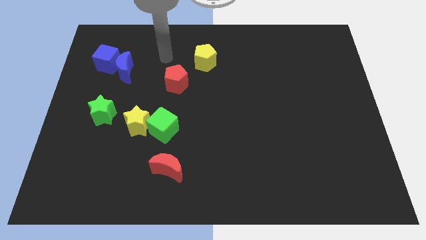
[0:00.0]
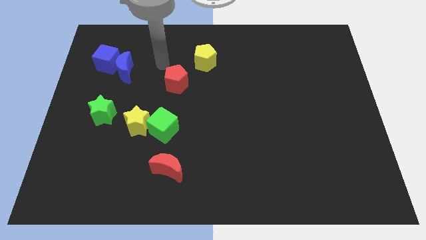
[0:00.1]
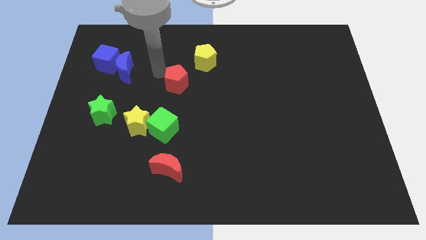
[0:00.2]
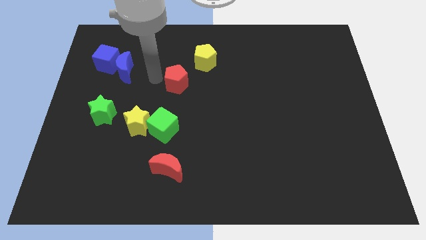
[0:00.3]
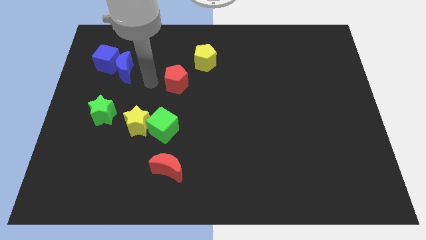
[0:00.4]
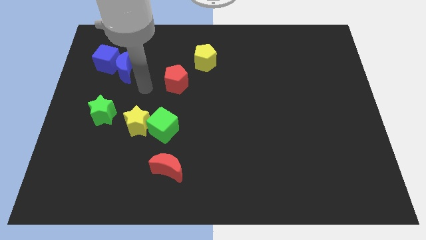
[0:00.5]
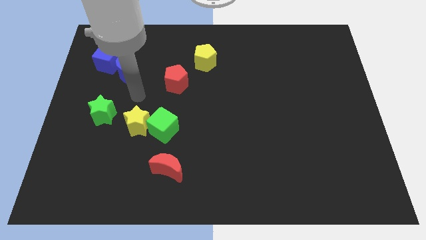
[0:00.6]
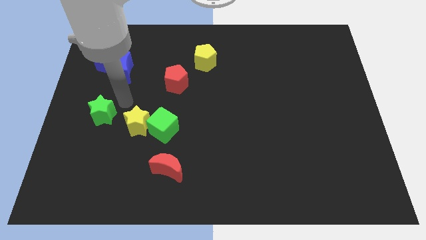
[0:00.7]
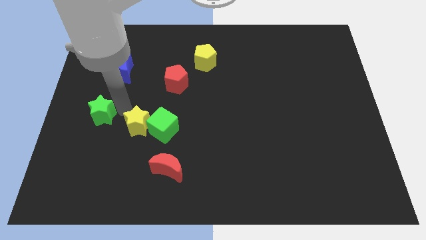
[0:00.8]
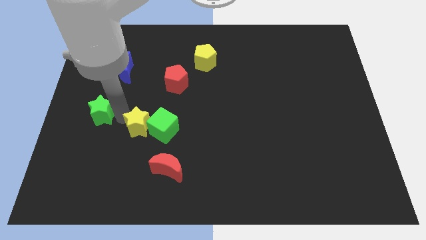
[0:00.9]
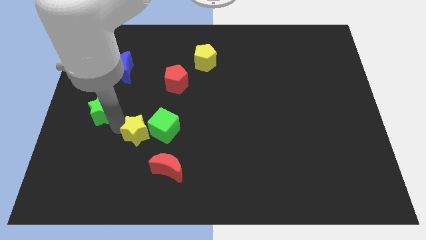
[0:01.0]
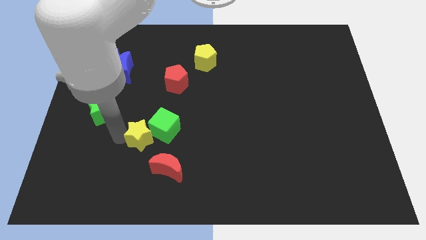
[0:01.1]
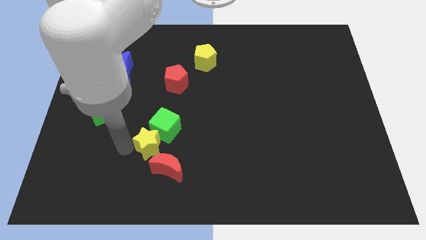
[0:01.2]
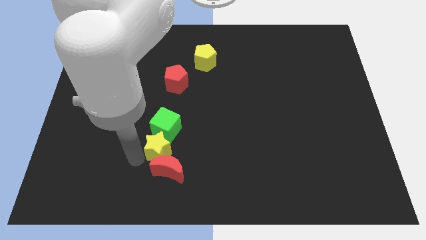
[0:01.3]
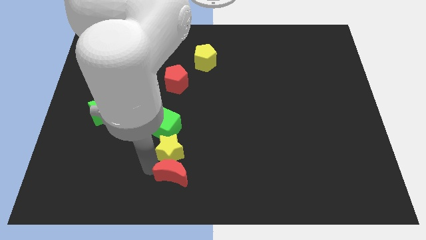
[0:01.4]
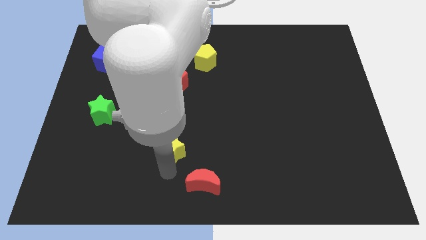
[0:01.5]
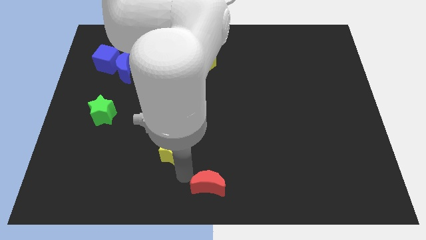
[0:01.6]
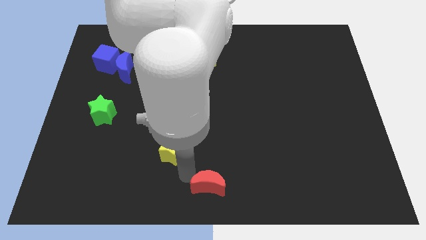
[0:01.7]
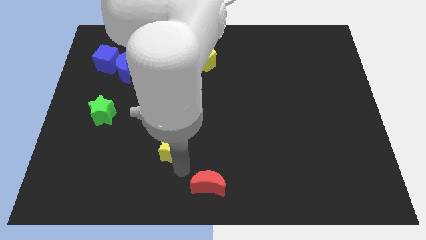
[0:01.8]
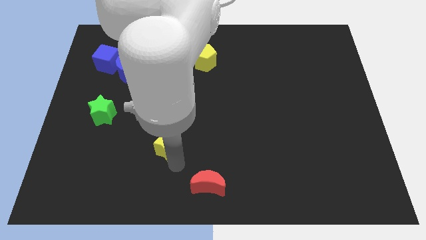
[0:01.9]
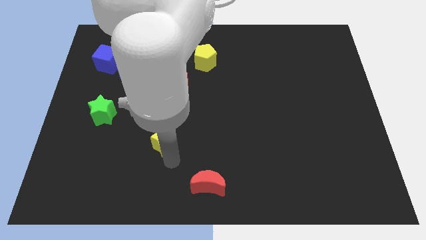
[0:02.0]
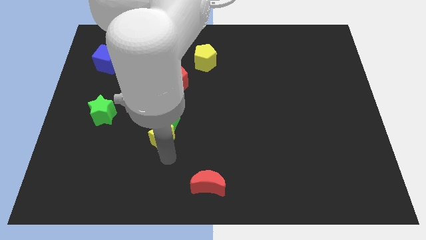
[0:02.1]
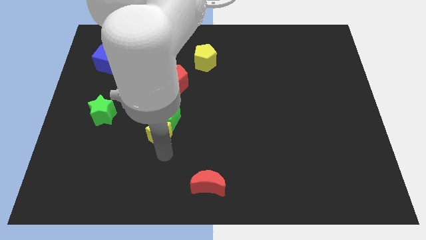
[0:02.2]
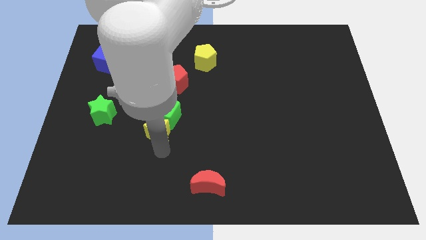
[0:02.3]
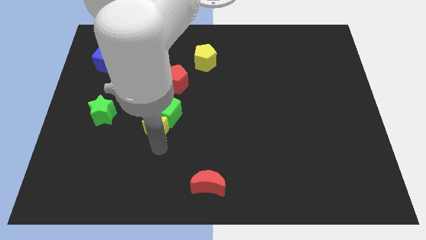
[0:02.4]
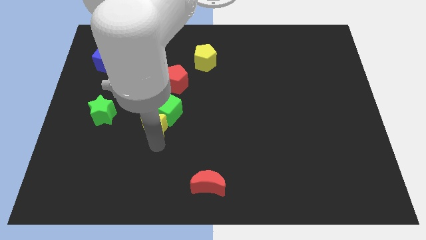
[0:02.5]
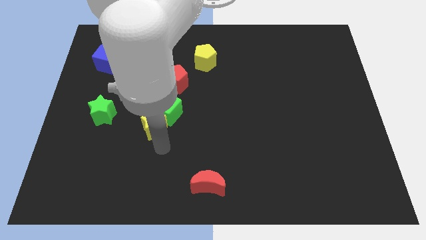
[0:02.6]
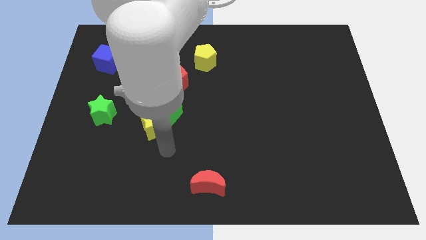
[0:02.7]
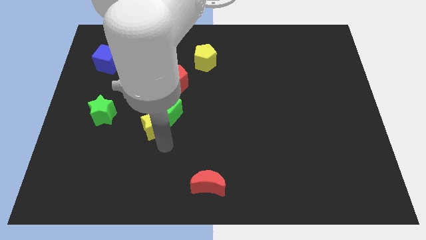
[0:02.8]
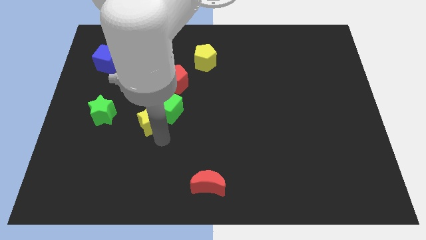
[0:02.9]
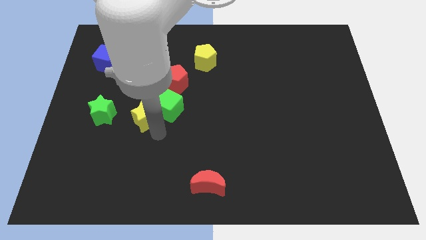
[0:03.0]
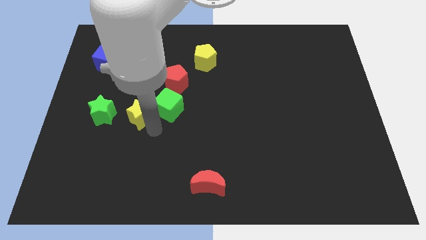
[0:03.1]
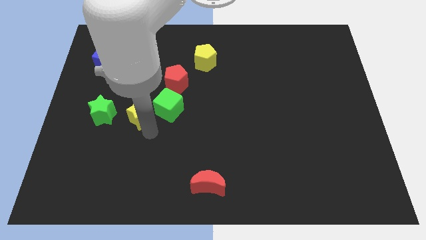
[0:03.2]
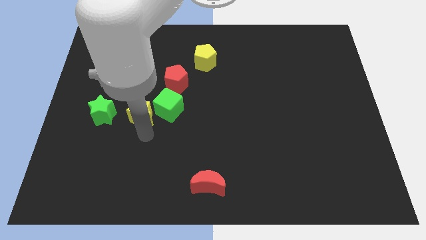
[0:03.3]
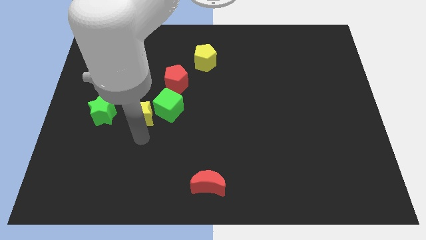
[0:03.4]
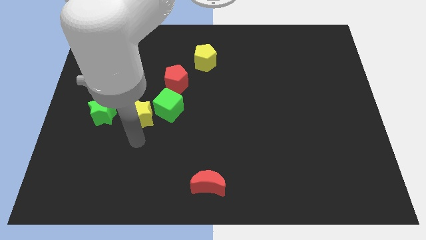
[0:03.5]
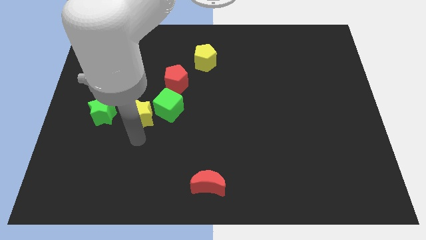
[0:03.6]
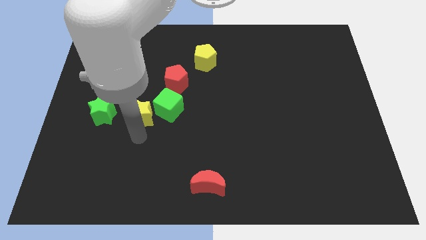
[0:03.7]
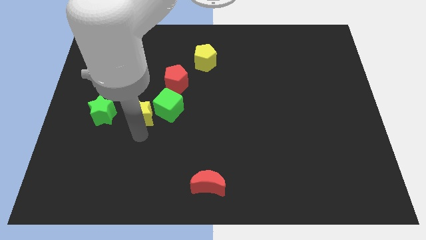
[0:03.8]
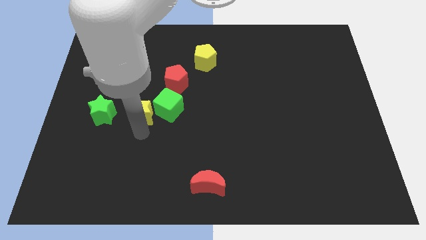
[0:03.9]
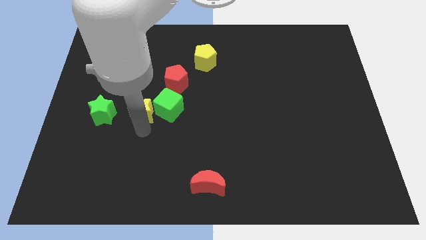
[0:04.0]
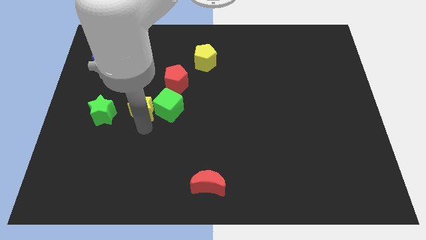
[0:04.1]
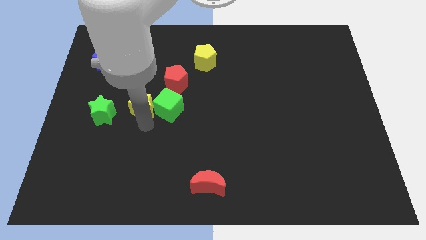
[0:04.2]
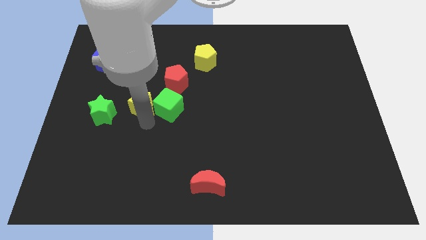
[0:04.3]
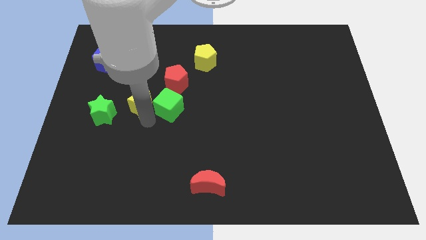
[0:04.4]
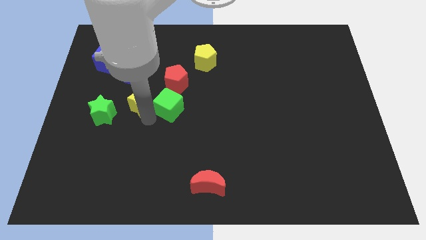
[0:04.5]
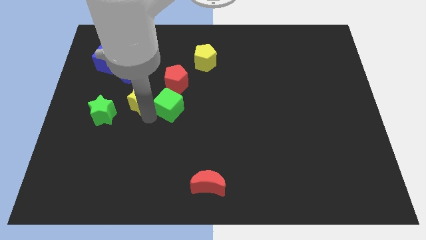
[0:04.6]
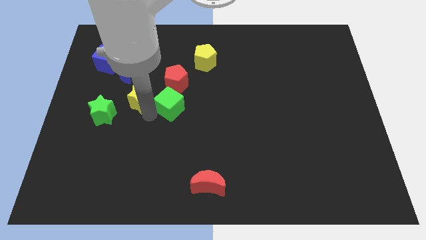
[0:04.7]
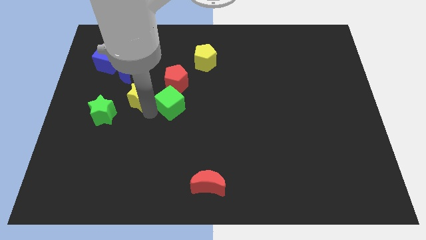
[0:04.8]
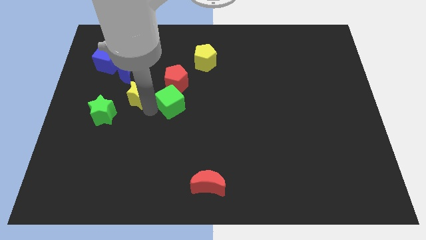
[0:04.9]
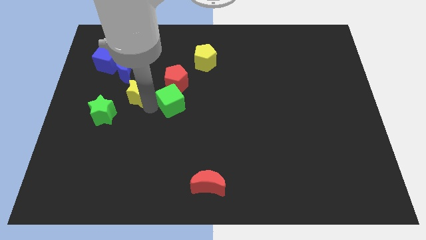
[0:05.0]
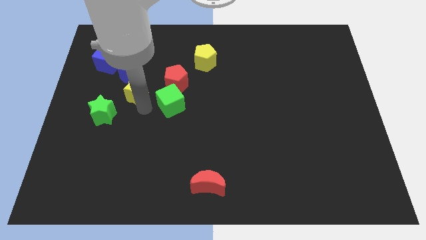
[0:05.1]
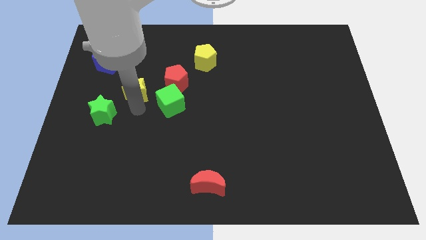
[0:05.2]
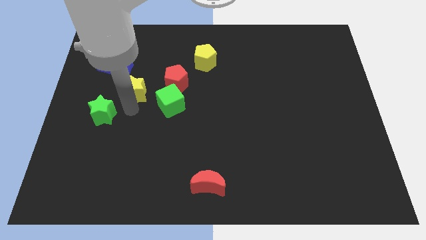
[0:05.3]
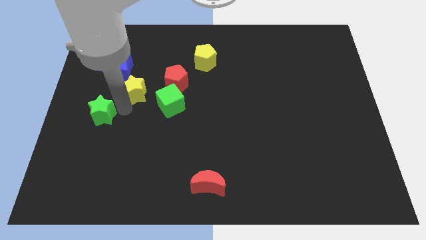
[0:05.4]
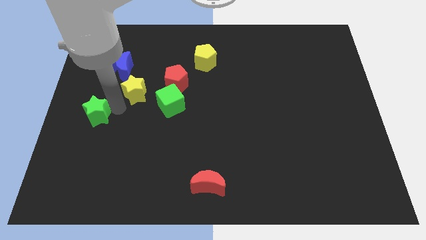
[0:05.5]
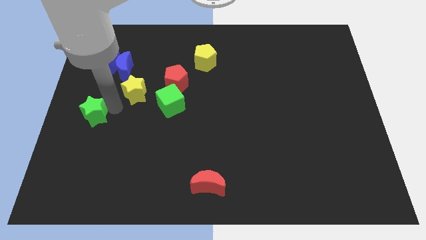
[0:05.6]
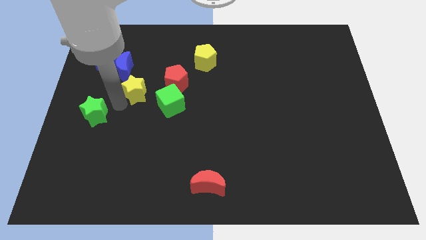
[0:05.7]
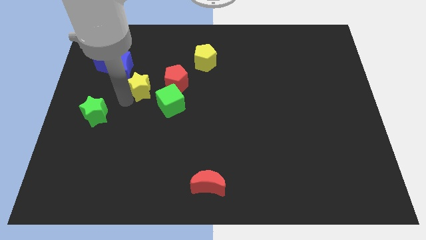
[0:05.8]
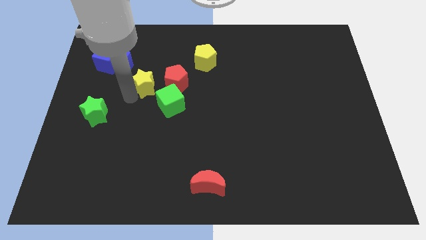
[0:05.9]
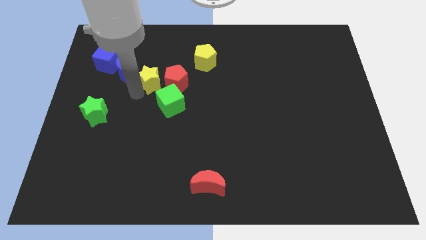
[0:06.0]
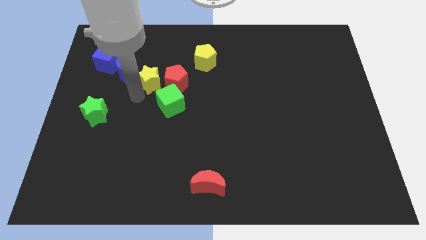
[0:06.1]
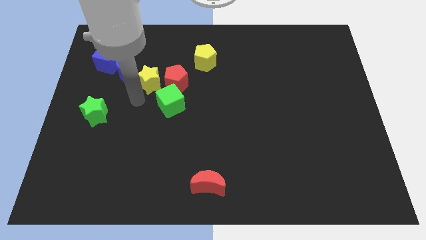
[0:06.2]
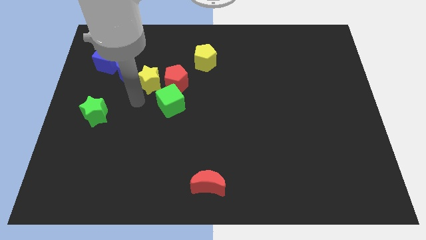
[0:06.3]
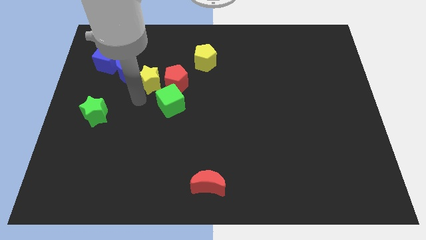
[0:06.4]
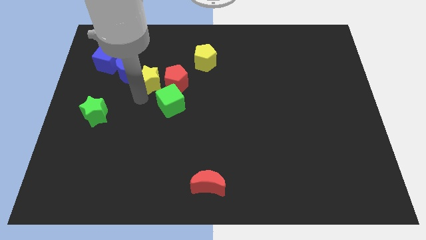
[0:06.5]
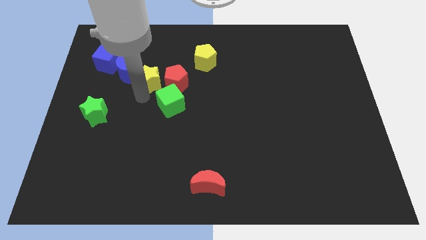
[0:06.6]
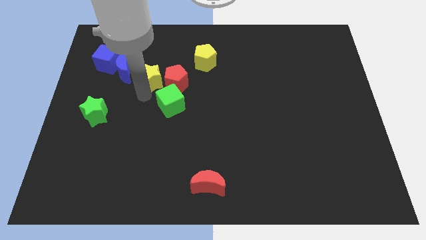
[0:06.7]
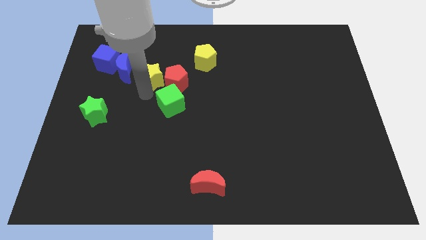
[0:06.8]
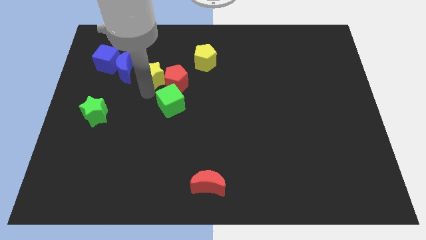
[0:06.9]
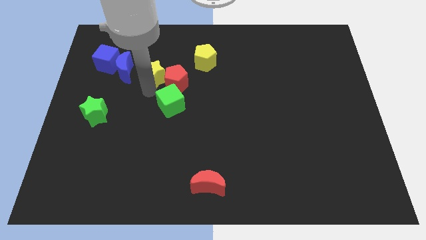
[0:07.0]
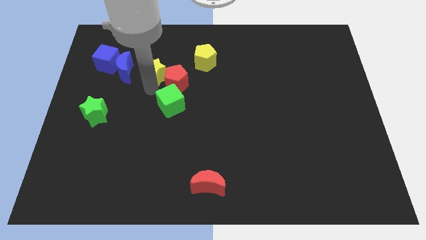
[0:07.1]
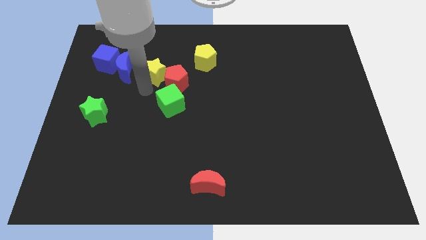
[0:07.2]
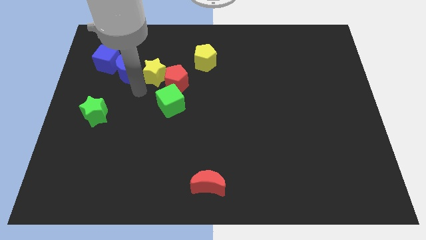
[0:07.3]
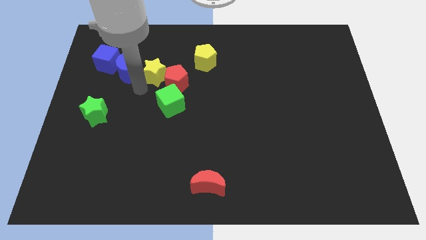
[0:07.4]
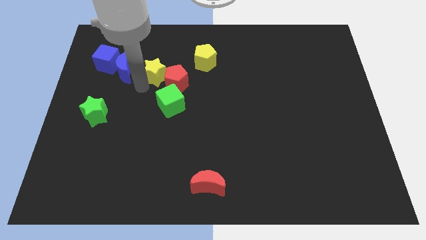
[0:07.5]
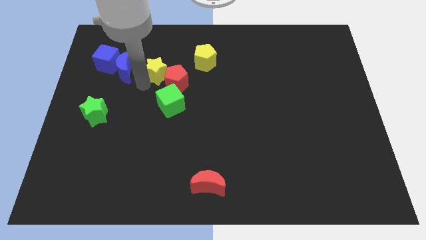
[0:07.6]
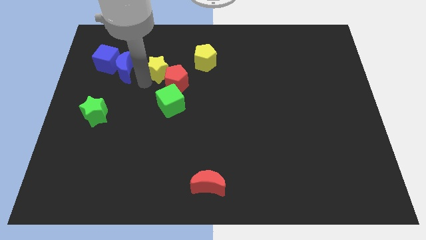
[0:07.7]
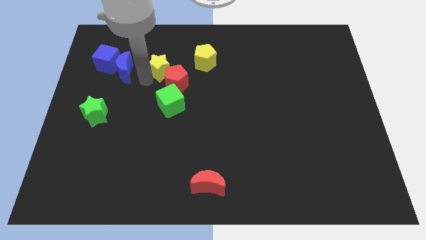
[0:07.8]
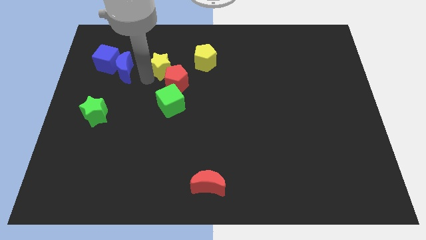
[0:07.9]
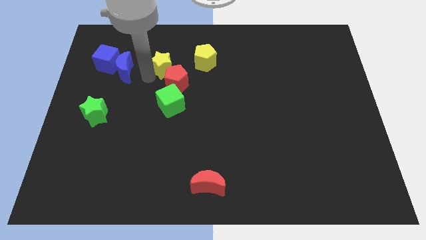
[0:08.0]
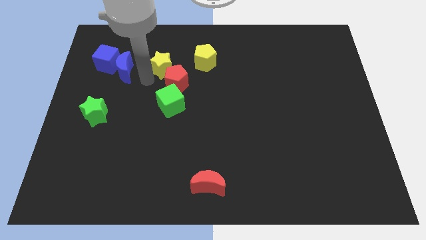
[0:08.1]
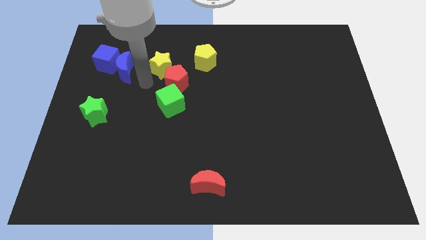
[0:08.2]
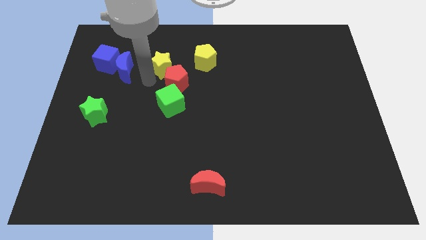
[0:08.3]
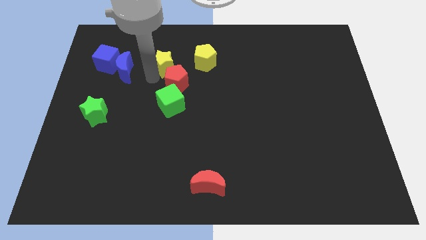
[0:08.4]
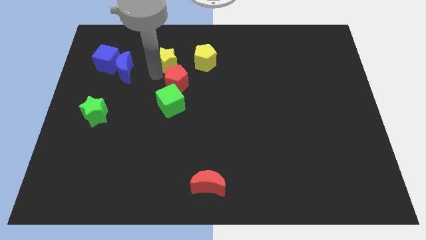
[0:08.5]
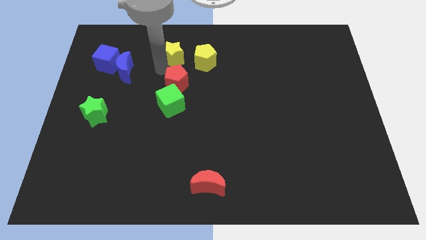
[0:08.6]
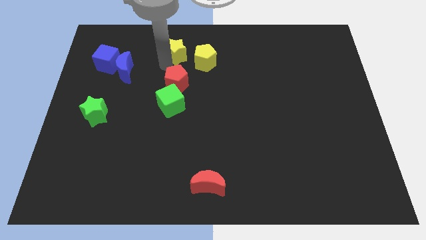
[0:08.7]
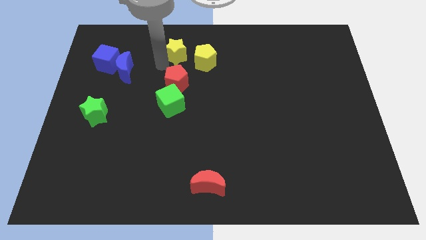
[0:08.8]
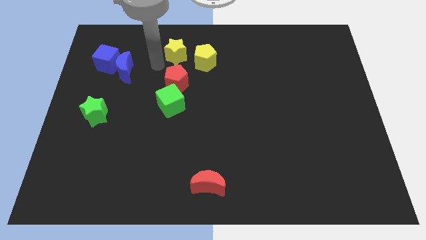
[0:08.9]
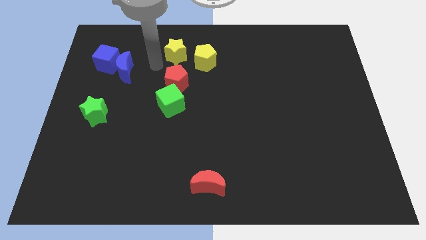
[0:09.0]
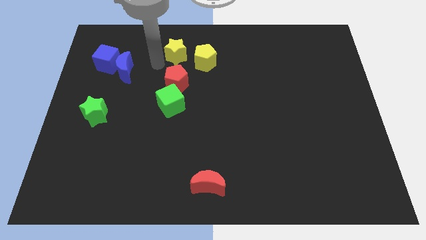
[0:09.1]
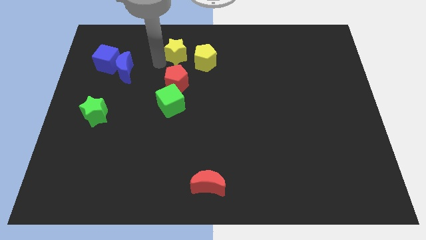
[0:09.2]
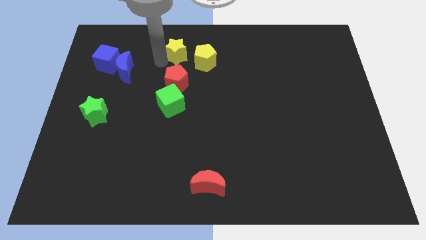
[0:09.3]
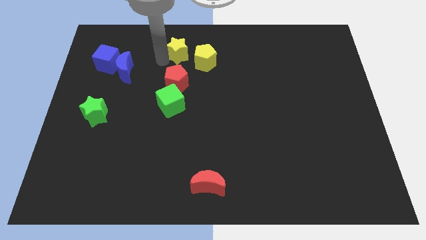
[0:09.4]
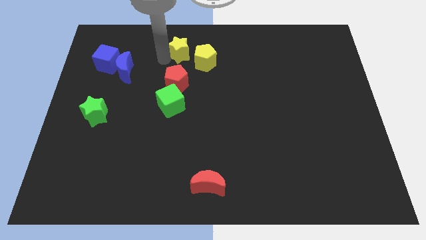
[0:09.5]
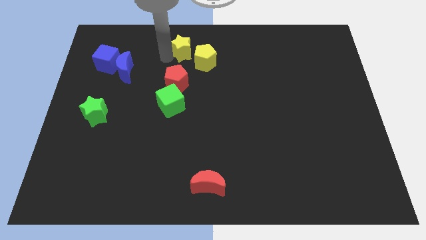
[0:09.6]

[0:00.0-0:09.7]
push the yellow star to the top side
